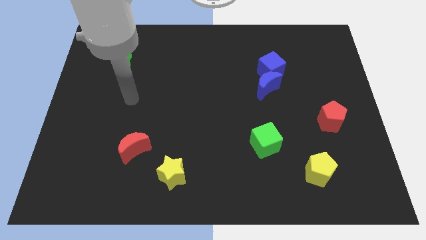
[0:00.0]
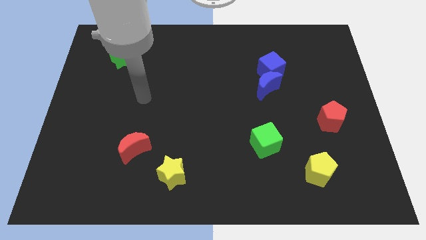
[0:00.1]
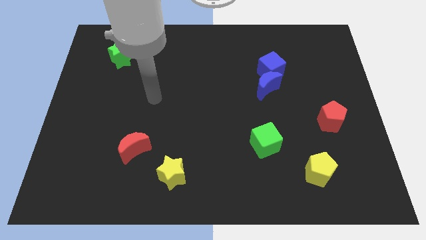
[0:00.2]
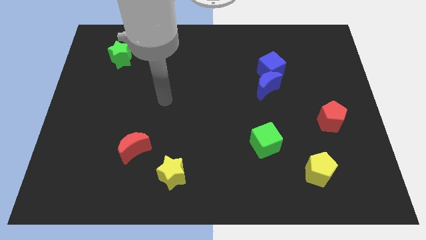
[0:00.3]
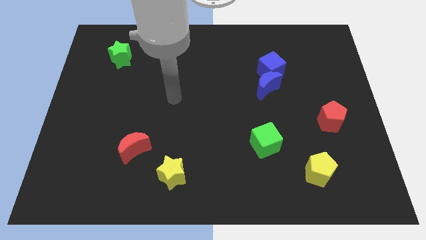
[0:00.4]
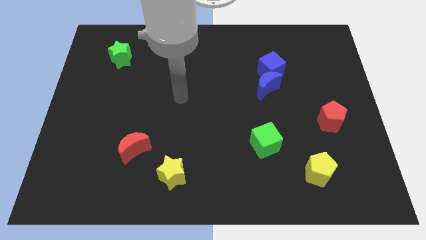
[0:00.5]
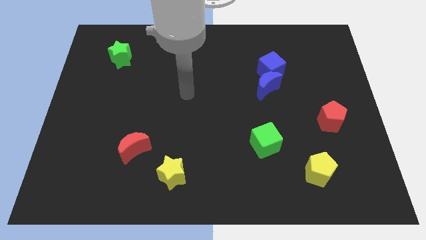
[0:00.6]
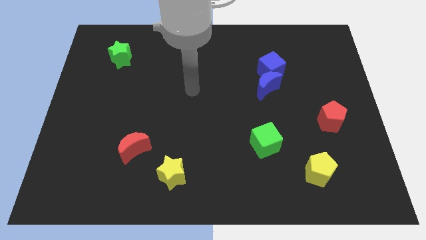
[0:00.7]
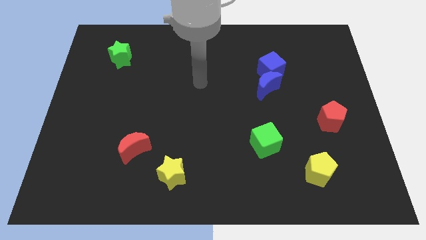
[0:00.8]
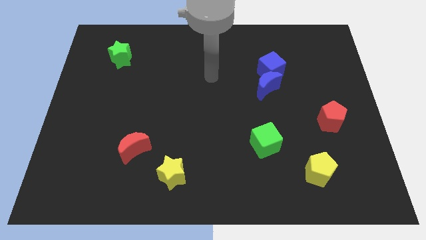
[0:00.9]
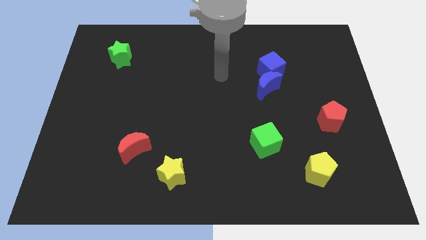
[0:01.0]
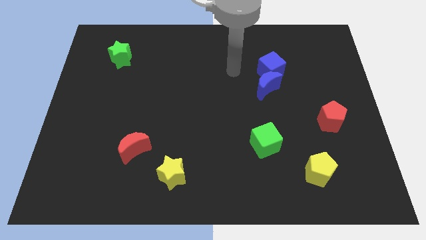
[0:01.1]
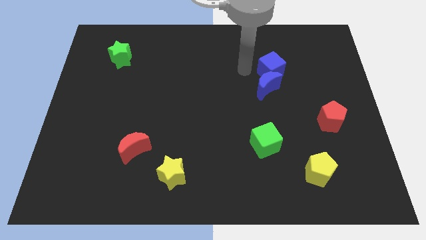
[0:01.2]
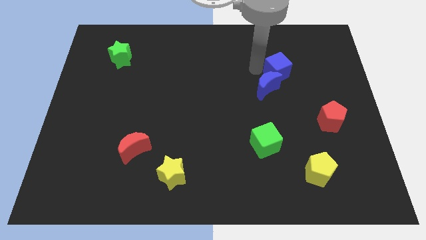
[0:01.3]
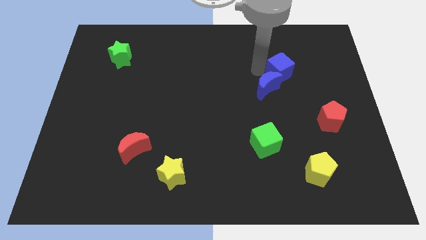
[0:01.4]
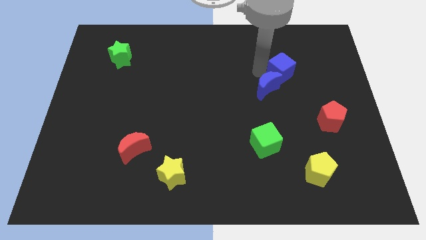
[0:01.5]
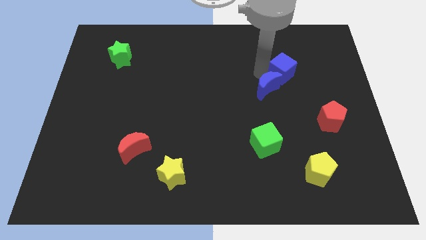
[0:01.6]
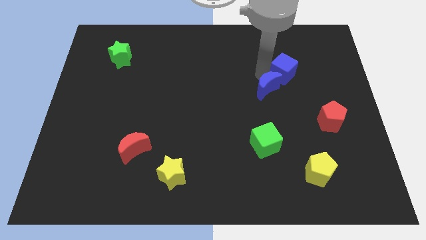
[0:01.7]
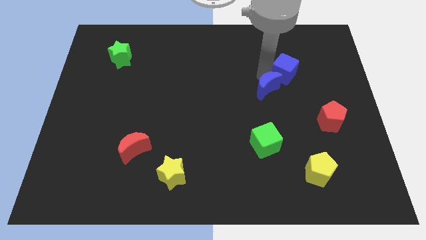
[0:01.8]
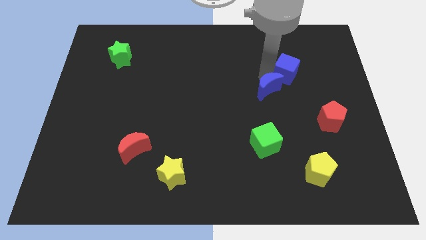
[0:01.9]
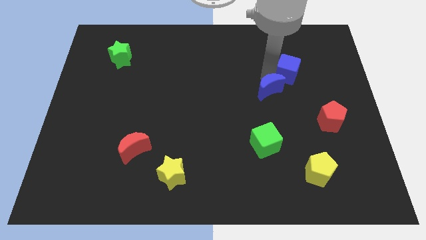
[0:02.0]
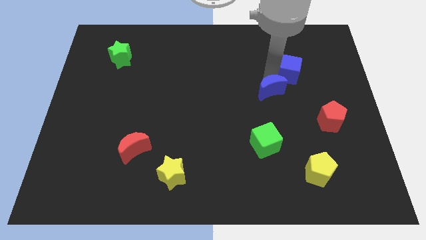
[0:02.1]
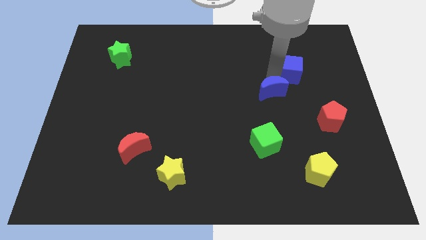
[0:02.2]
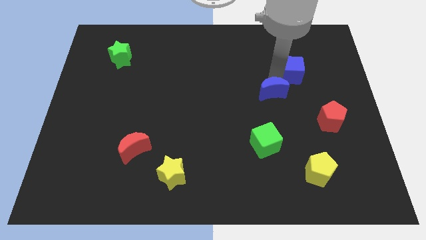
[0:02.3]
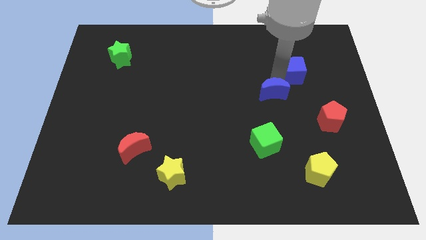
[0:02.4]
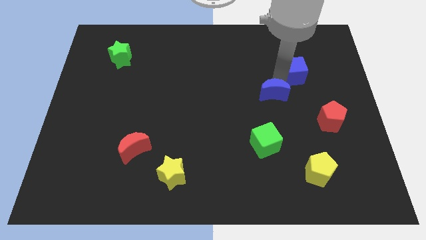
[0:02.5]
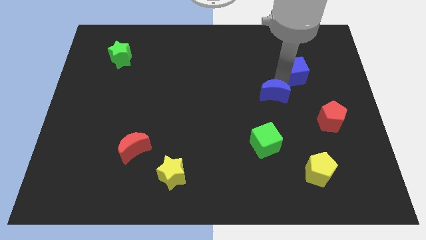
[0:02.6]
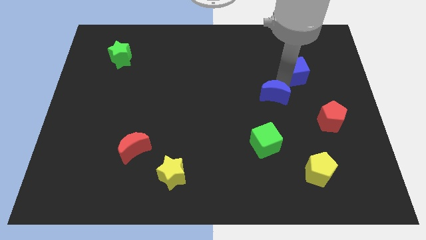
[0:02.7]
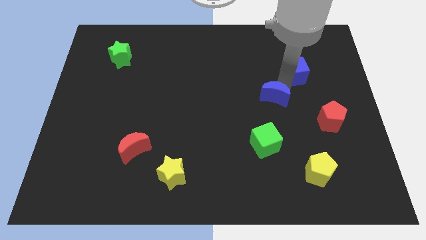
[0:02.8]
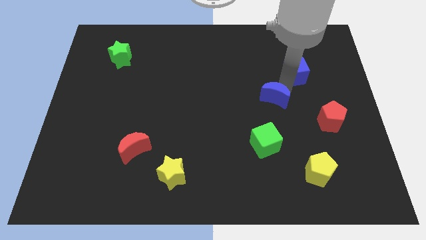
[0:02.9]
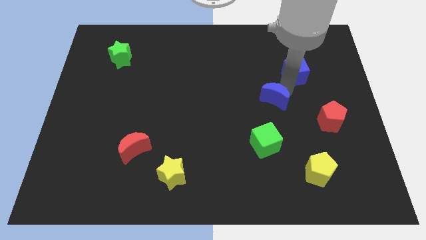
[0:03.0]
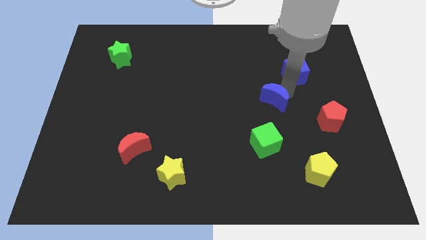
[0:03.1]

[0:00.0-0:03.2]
separate the blue moon from the blue cube

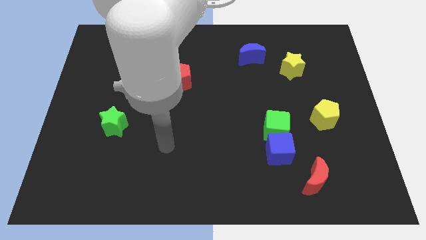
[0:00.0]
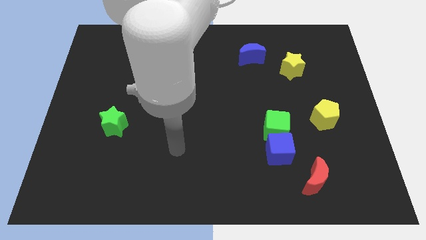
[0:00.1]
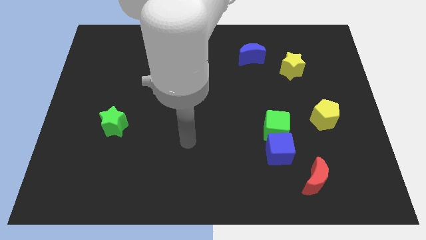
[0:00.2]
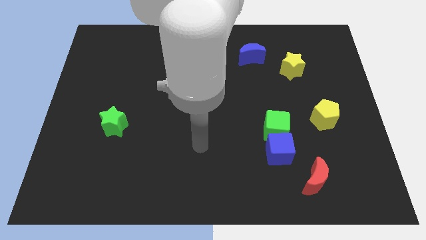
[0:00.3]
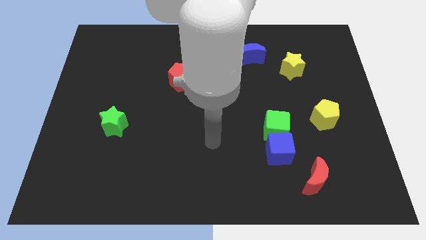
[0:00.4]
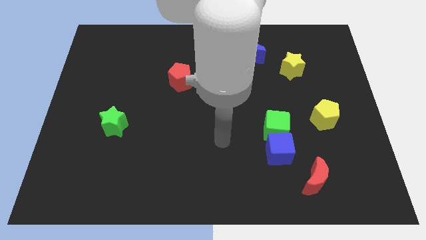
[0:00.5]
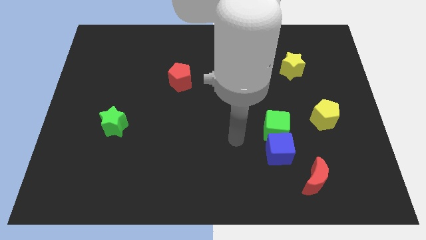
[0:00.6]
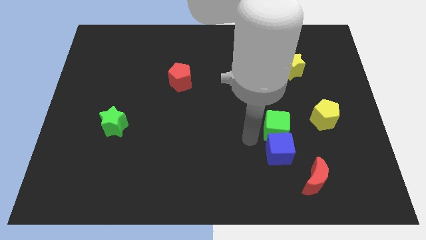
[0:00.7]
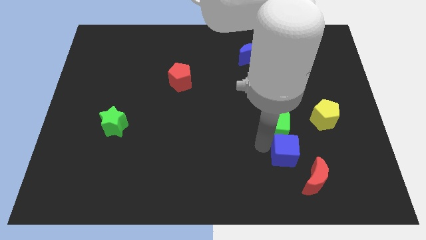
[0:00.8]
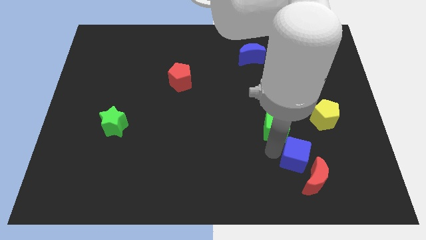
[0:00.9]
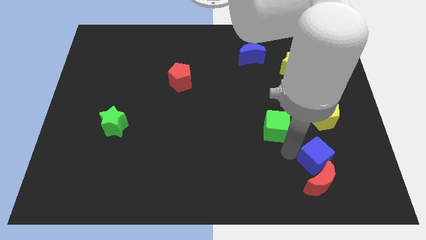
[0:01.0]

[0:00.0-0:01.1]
move the green cube away from the blue cube

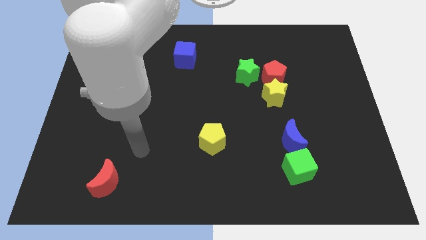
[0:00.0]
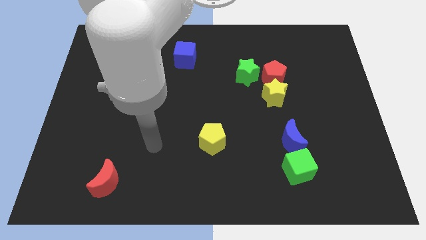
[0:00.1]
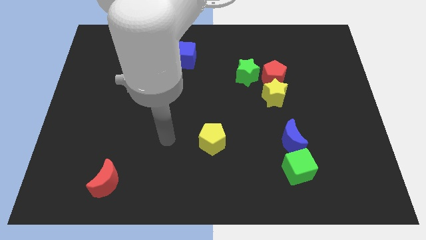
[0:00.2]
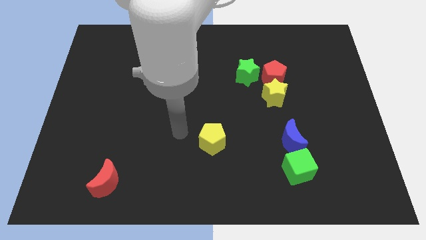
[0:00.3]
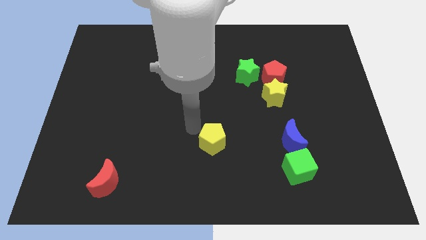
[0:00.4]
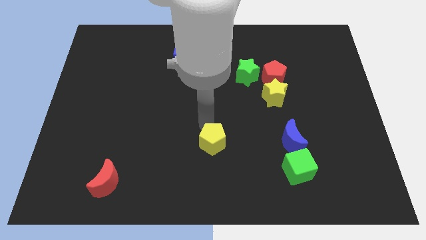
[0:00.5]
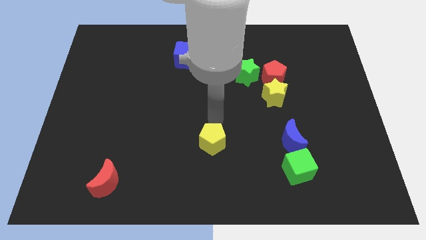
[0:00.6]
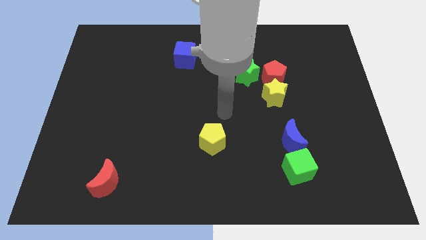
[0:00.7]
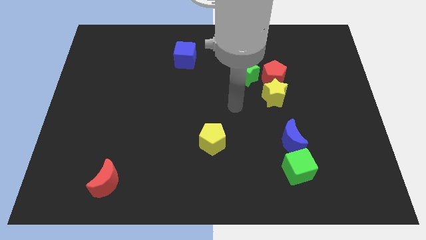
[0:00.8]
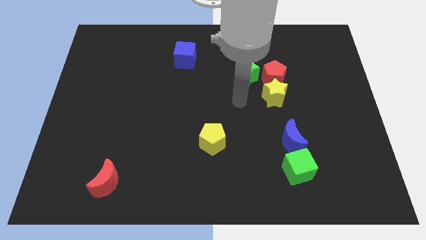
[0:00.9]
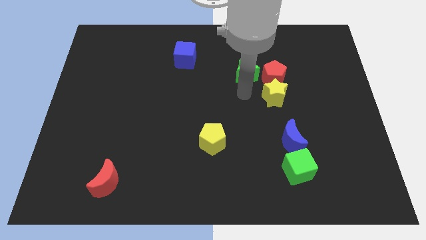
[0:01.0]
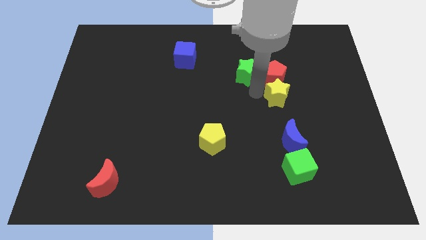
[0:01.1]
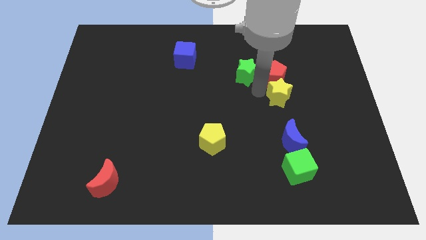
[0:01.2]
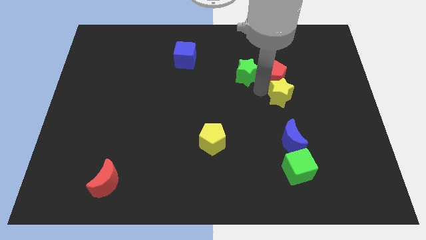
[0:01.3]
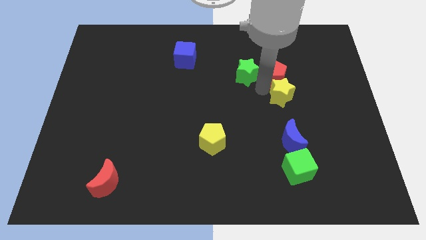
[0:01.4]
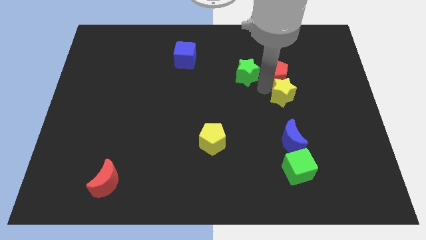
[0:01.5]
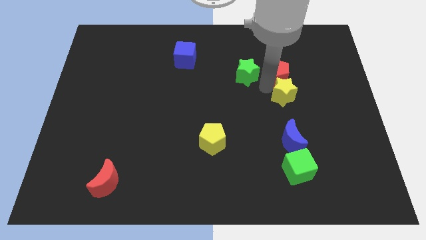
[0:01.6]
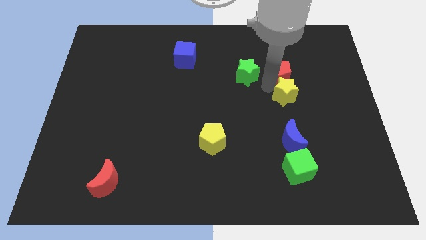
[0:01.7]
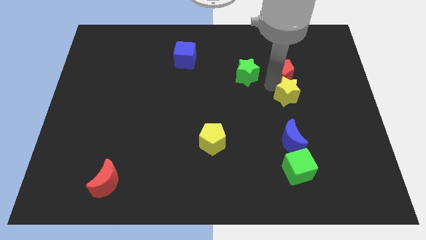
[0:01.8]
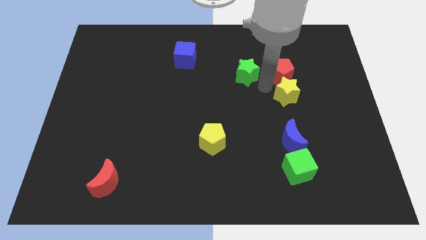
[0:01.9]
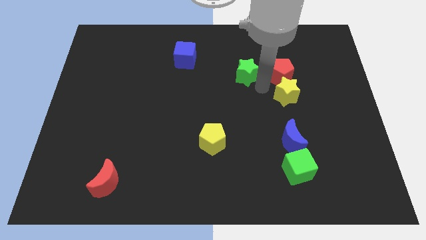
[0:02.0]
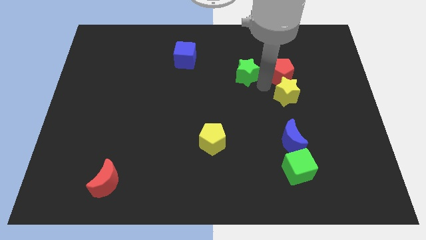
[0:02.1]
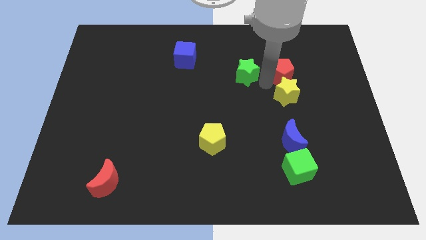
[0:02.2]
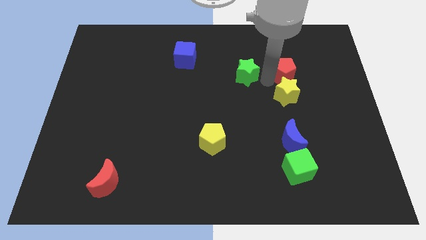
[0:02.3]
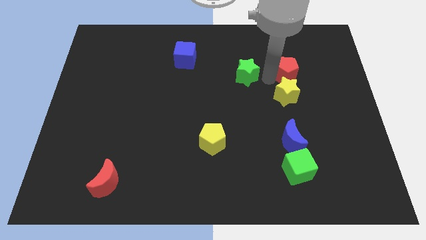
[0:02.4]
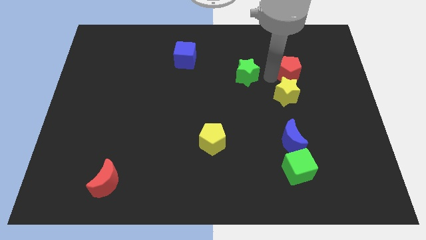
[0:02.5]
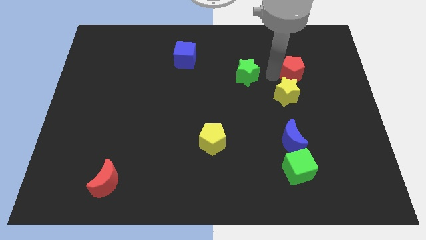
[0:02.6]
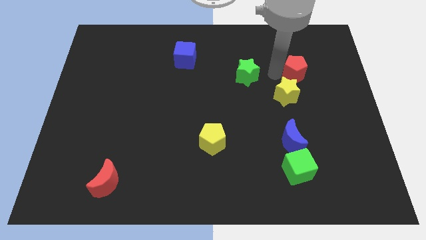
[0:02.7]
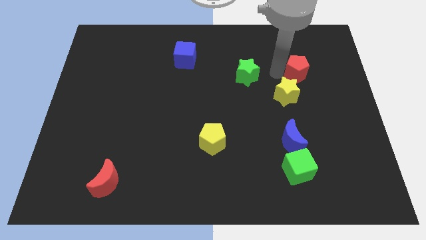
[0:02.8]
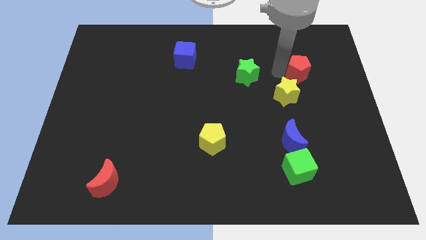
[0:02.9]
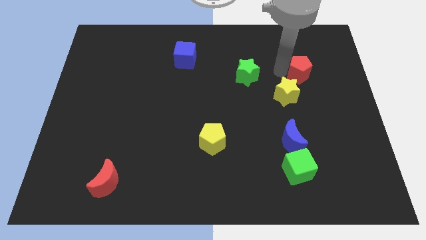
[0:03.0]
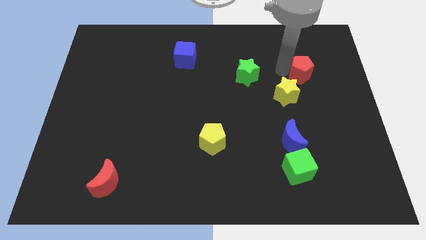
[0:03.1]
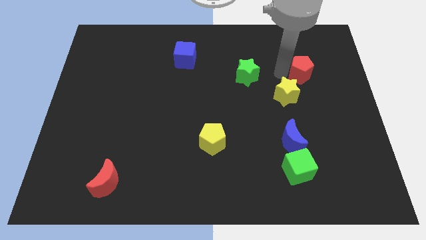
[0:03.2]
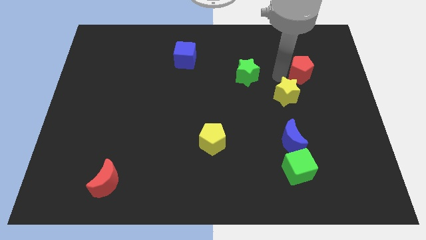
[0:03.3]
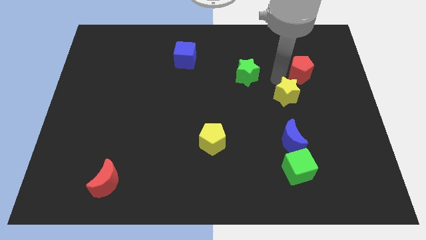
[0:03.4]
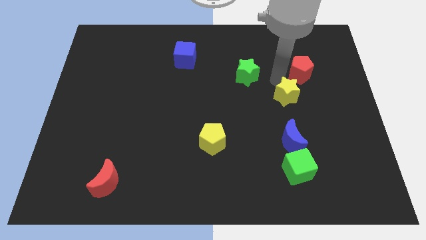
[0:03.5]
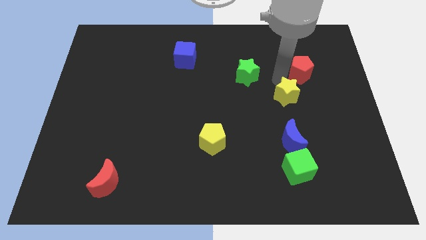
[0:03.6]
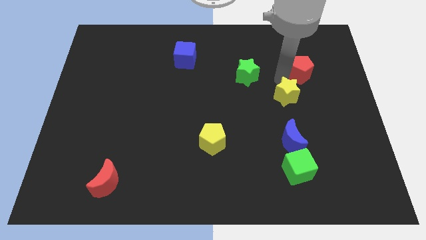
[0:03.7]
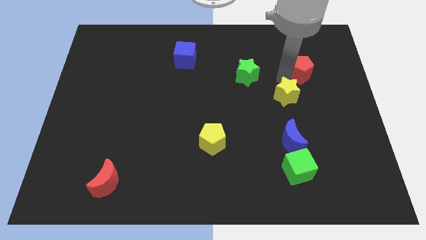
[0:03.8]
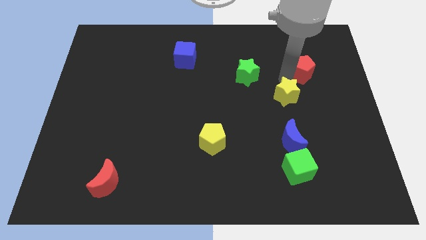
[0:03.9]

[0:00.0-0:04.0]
pull the red pentagon apart from the yellow star and green star

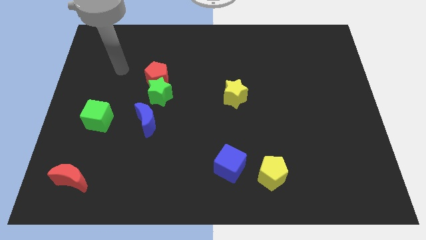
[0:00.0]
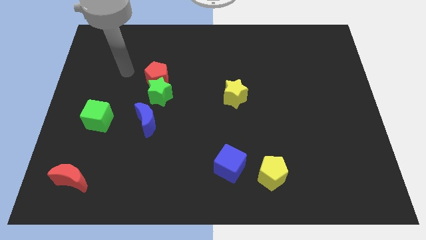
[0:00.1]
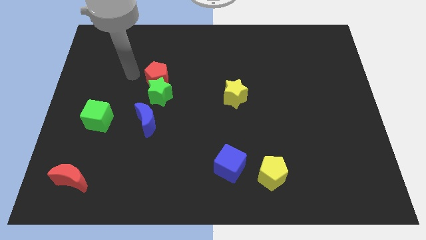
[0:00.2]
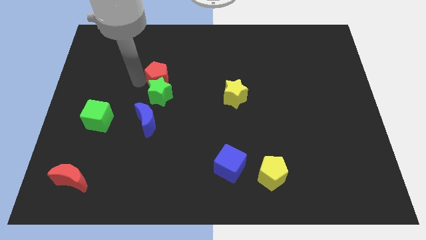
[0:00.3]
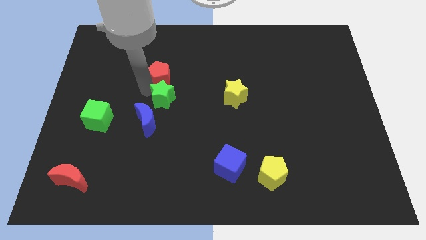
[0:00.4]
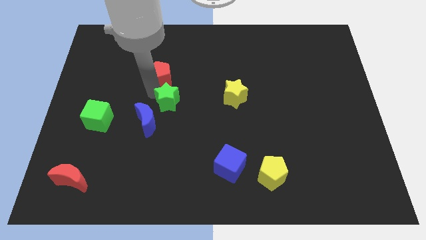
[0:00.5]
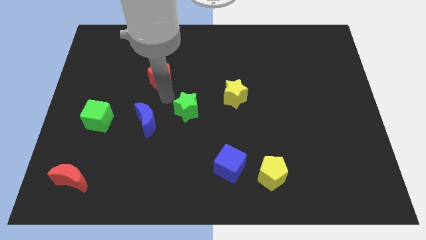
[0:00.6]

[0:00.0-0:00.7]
pull the red pentagon apart from the green star

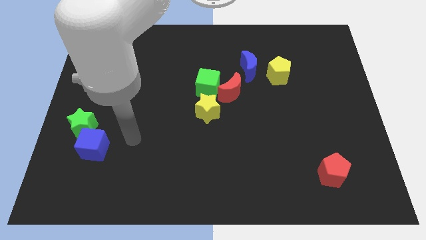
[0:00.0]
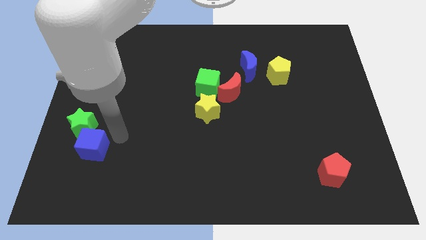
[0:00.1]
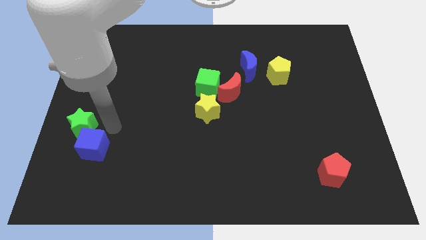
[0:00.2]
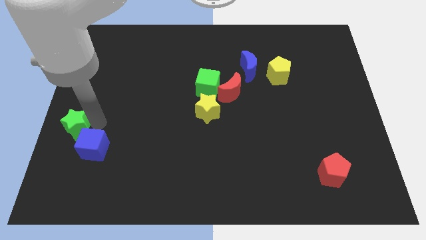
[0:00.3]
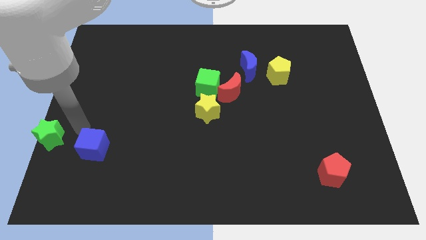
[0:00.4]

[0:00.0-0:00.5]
separate the blue cube from the green star
